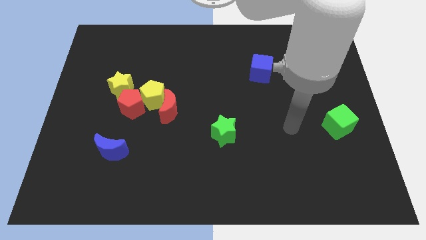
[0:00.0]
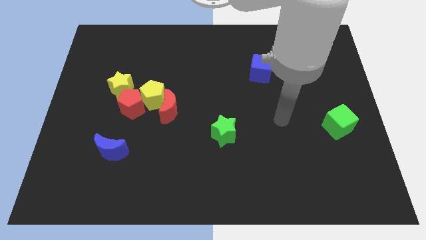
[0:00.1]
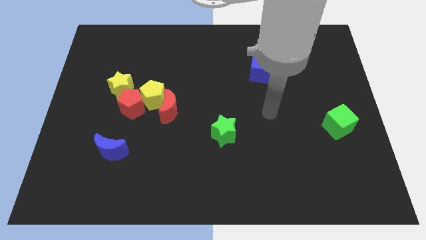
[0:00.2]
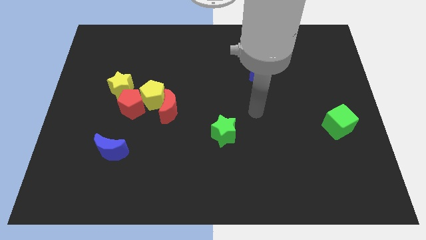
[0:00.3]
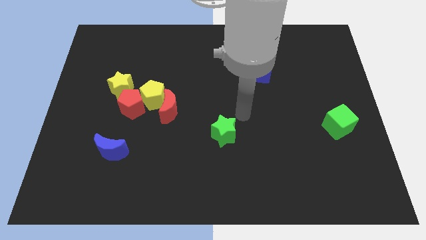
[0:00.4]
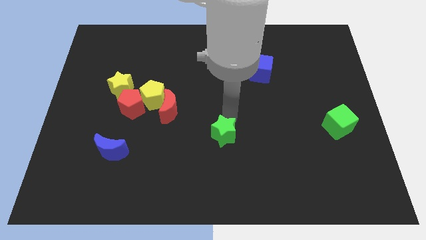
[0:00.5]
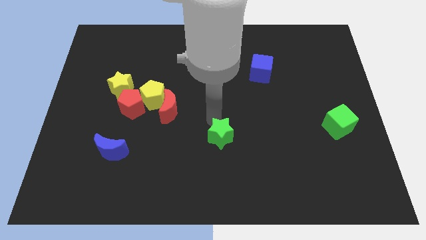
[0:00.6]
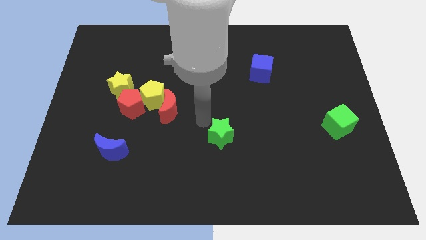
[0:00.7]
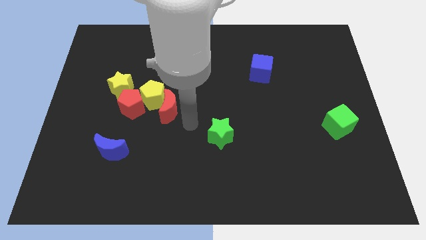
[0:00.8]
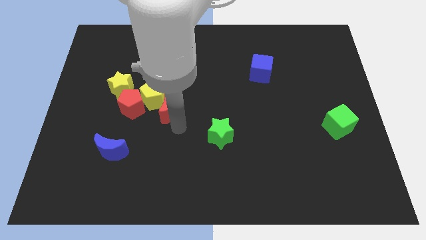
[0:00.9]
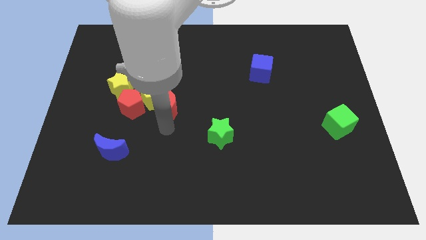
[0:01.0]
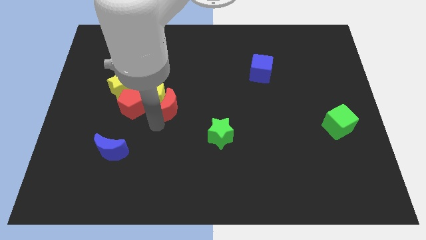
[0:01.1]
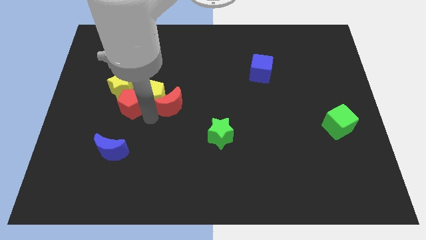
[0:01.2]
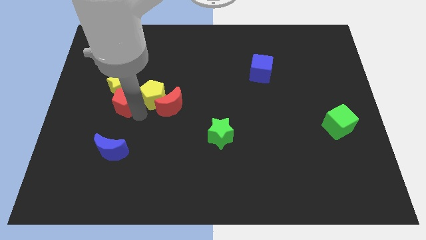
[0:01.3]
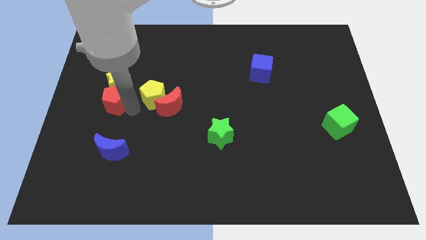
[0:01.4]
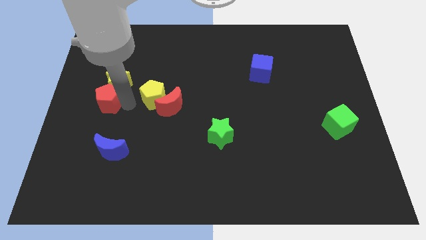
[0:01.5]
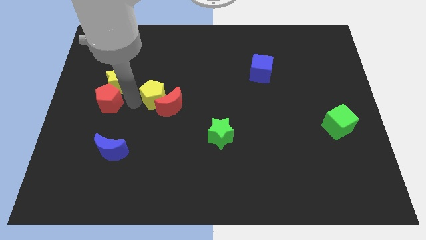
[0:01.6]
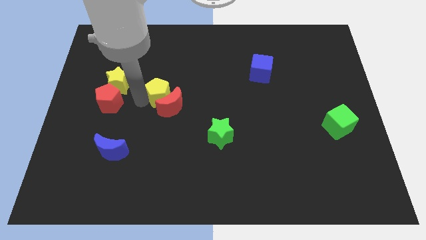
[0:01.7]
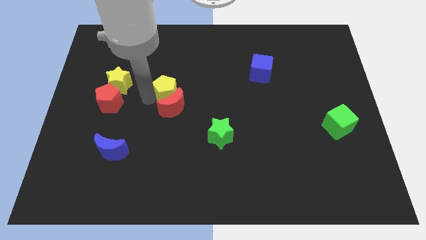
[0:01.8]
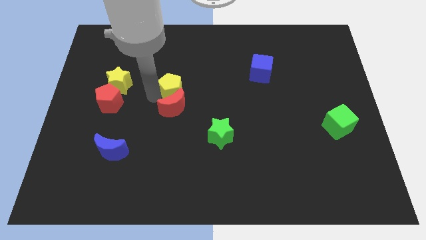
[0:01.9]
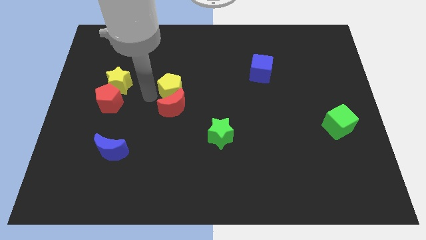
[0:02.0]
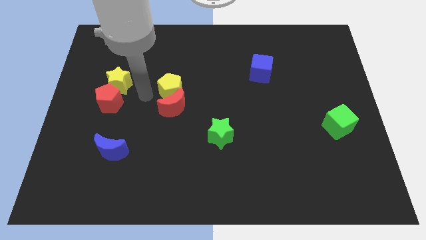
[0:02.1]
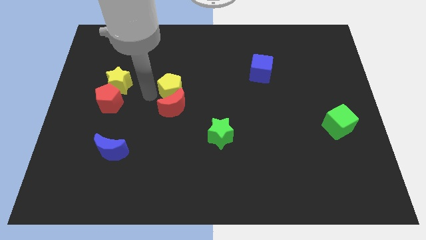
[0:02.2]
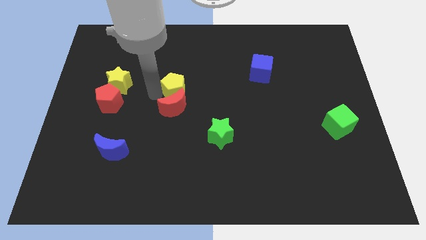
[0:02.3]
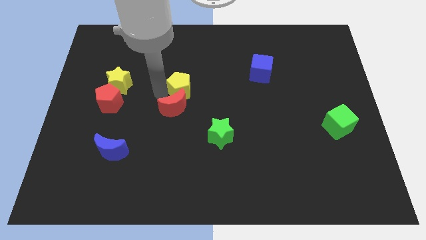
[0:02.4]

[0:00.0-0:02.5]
separate the yellow pentagon from the clump

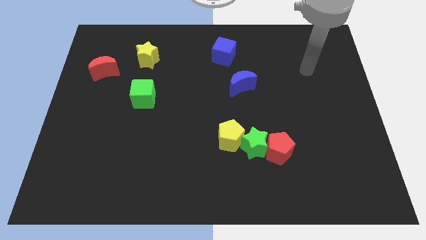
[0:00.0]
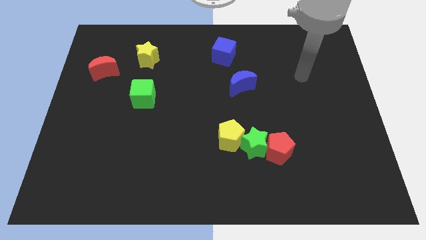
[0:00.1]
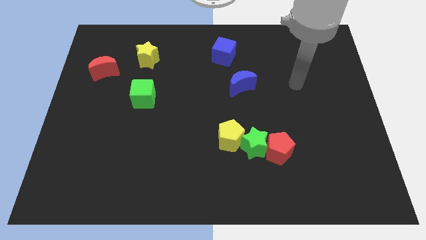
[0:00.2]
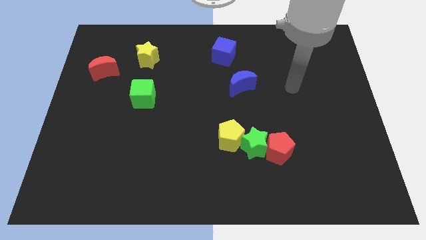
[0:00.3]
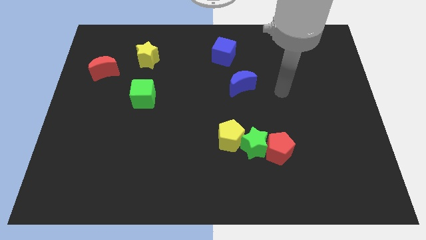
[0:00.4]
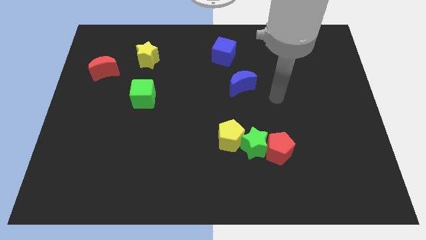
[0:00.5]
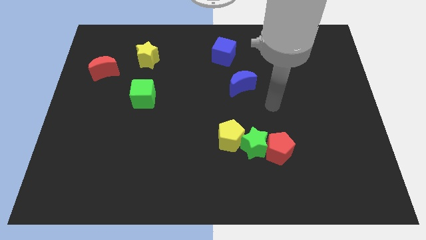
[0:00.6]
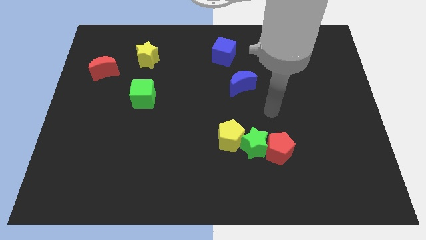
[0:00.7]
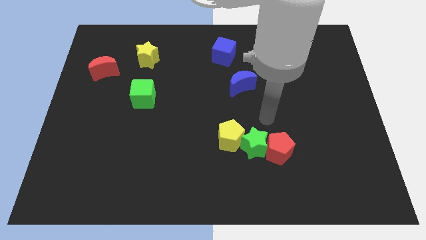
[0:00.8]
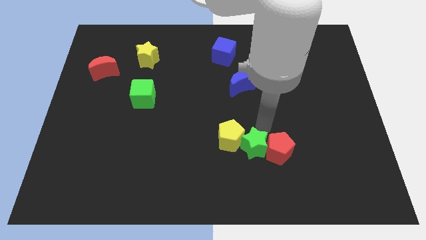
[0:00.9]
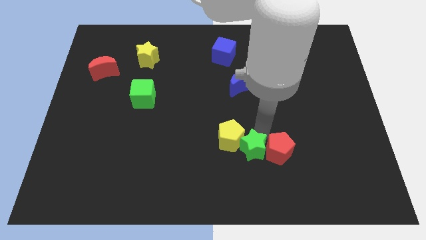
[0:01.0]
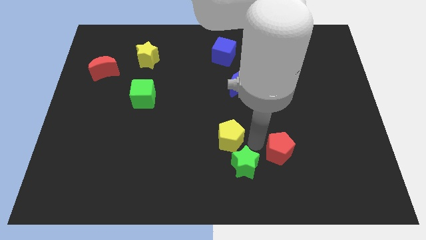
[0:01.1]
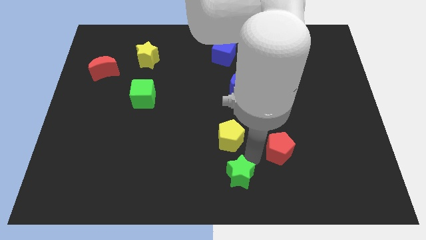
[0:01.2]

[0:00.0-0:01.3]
pull the red pentagon apart from the green star

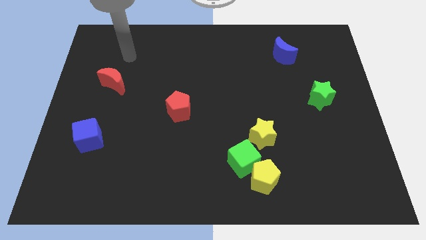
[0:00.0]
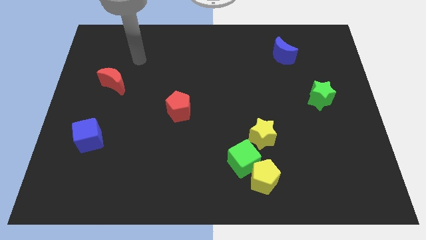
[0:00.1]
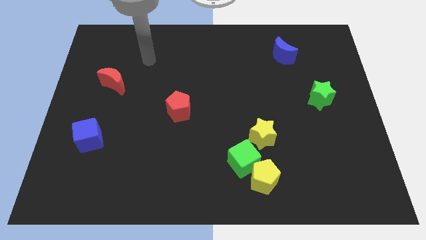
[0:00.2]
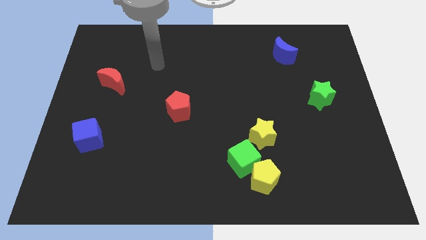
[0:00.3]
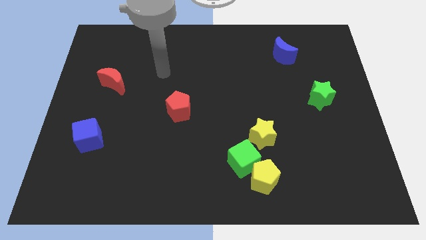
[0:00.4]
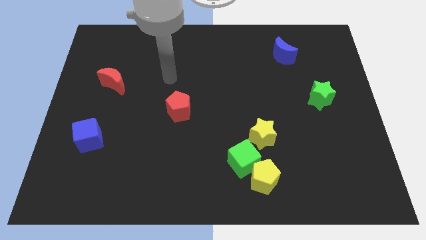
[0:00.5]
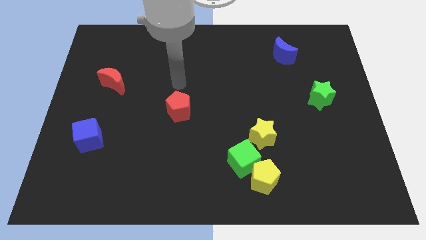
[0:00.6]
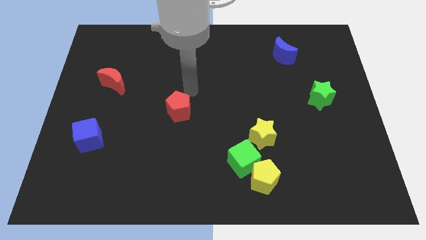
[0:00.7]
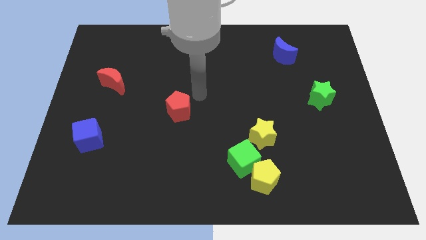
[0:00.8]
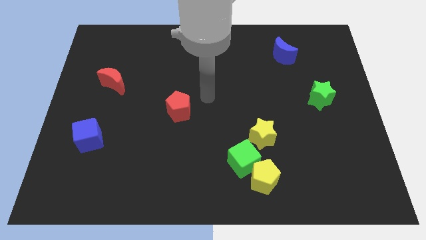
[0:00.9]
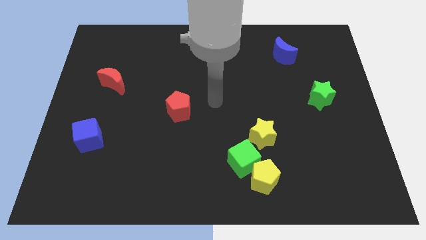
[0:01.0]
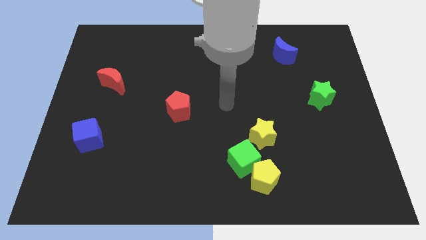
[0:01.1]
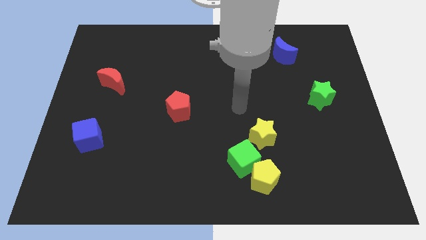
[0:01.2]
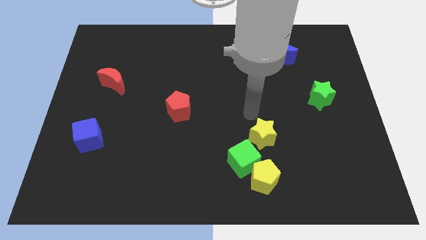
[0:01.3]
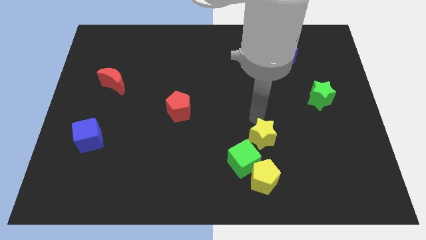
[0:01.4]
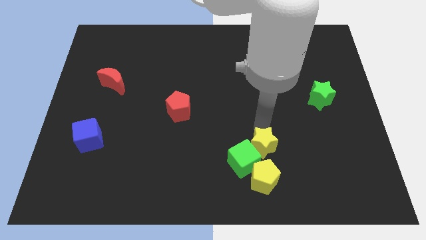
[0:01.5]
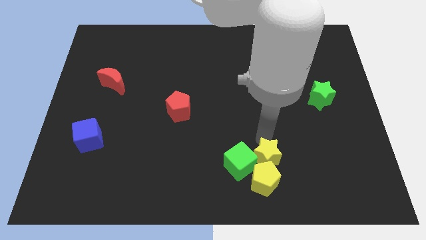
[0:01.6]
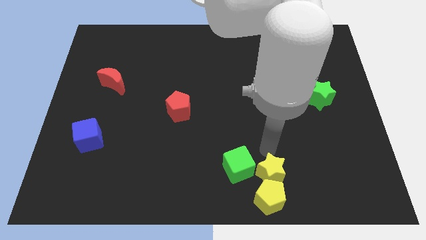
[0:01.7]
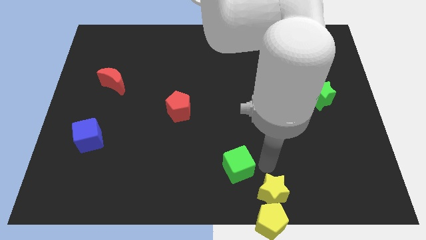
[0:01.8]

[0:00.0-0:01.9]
pull the green cube apart from the yellow pentagon and yellow star

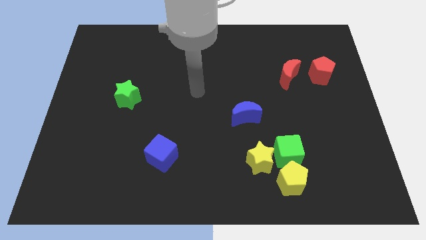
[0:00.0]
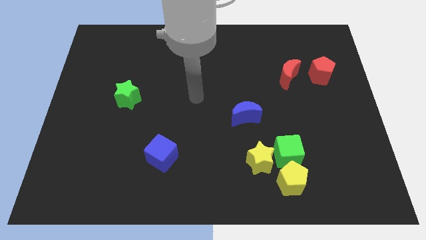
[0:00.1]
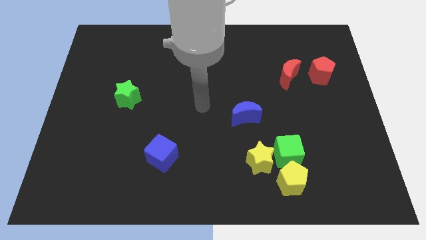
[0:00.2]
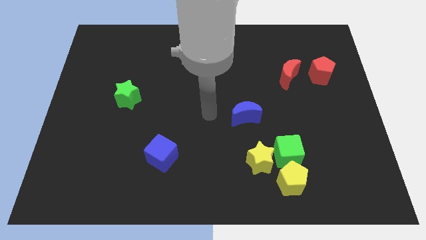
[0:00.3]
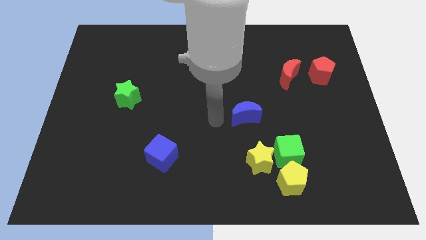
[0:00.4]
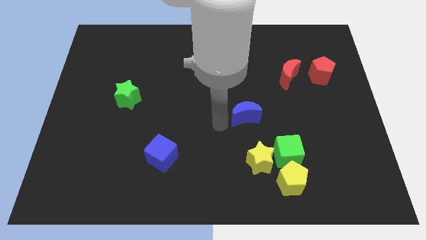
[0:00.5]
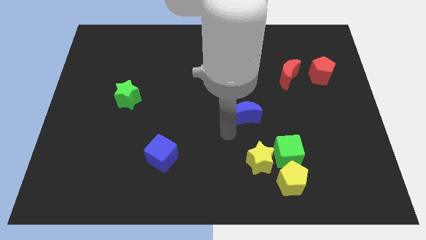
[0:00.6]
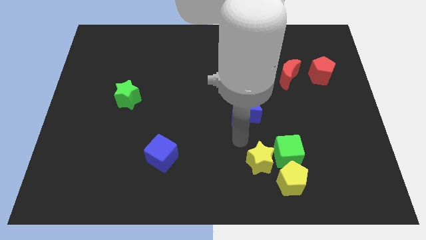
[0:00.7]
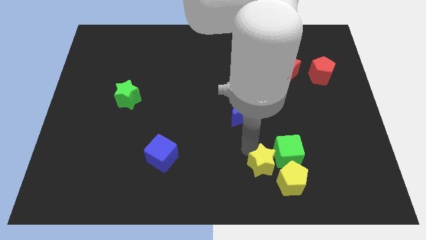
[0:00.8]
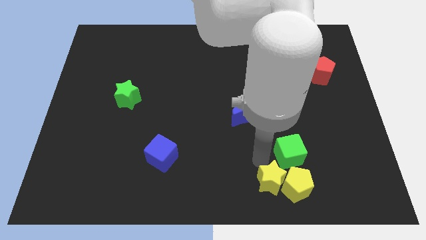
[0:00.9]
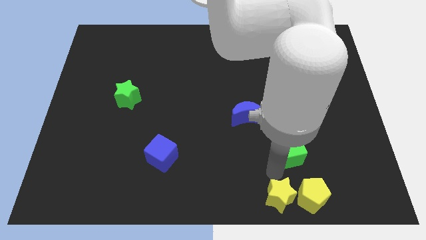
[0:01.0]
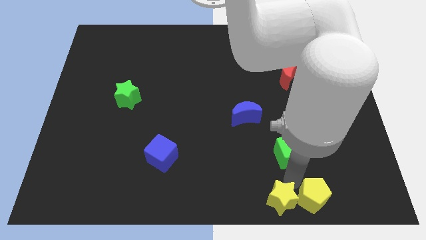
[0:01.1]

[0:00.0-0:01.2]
separate the green cube from the yellow star and yellow pentagon

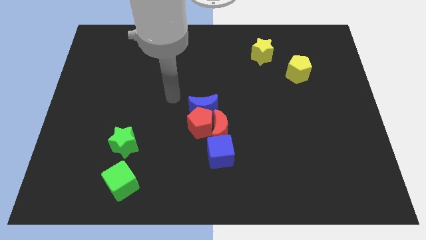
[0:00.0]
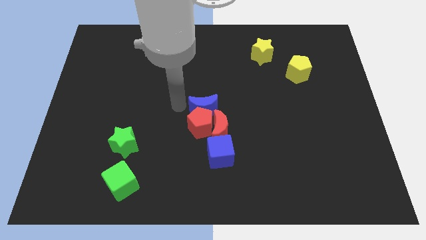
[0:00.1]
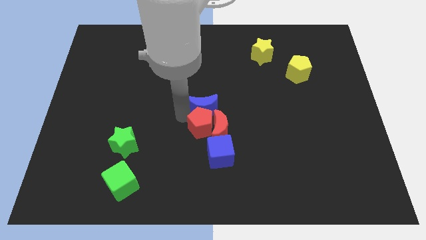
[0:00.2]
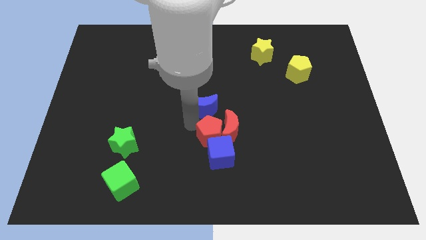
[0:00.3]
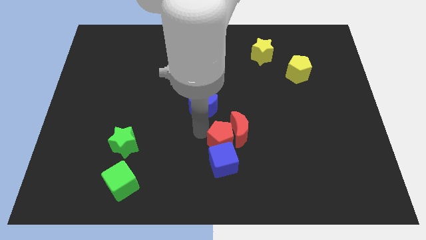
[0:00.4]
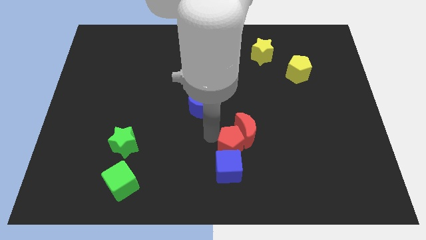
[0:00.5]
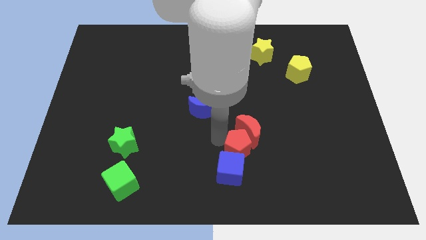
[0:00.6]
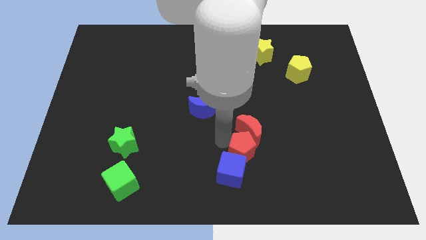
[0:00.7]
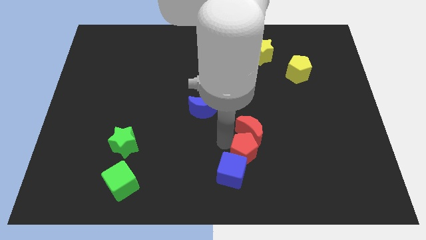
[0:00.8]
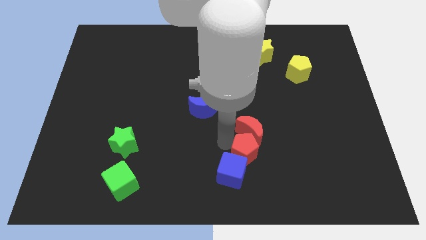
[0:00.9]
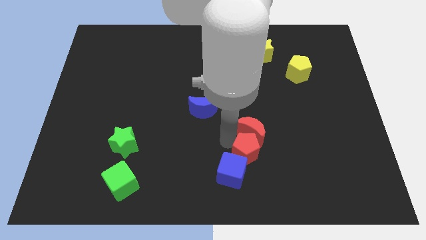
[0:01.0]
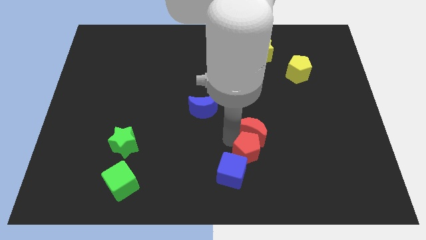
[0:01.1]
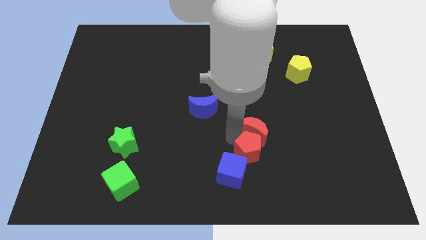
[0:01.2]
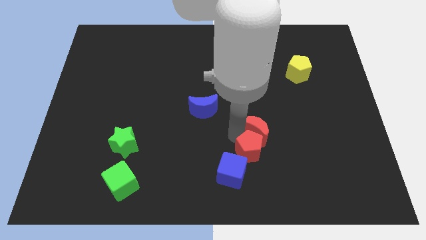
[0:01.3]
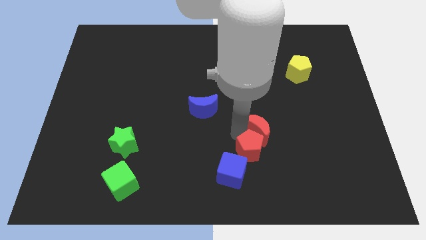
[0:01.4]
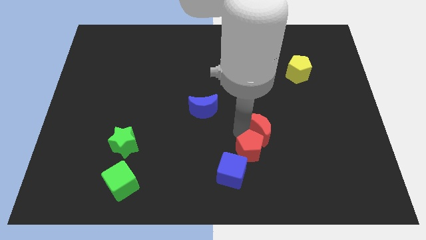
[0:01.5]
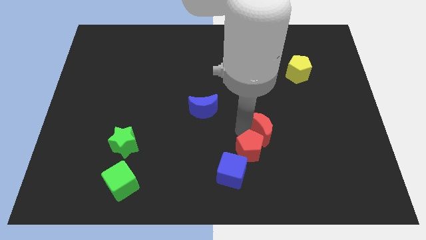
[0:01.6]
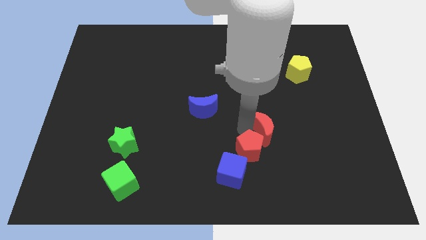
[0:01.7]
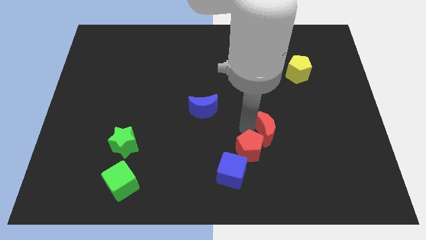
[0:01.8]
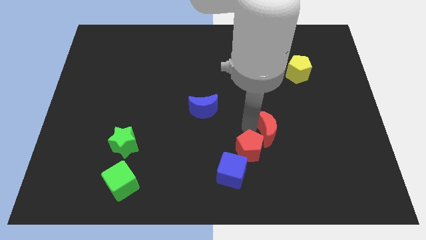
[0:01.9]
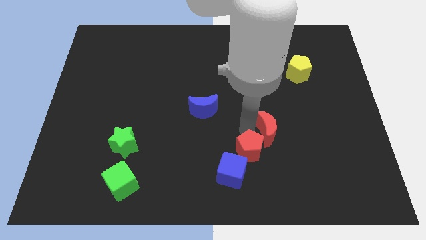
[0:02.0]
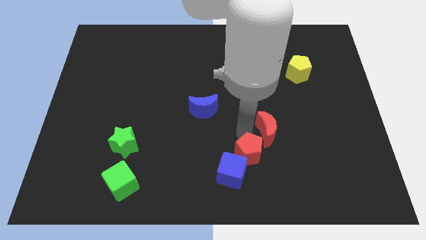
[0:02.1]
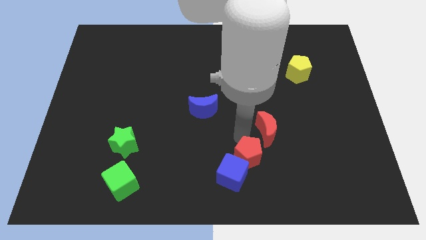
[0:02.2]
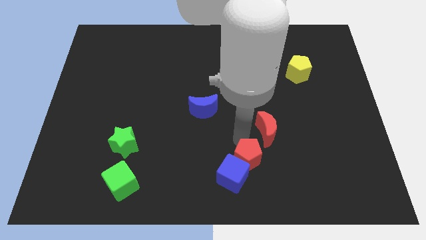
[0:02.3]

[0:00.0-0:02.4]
pull the red moon apart from the red pentagon, blue cube, and blue moon
